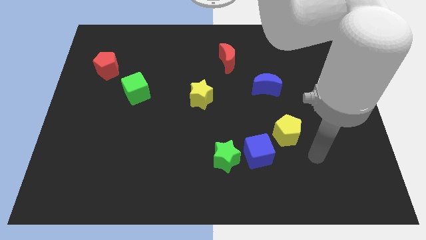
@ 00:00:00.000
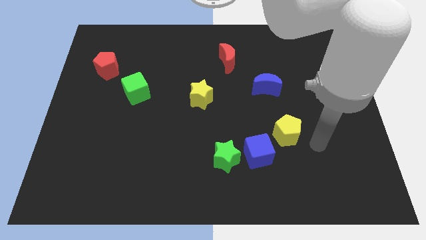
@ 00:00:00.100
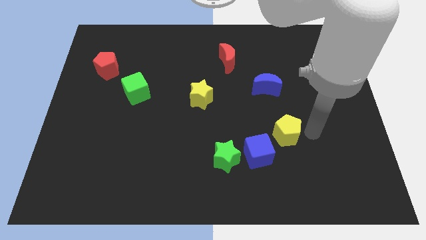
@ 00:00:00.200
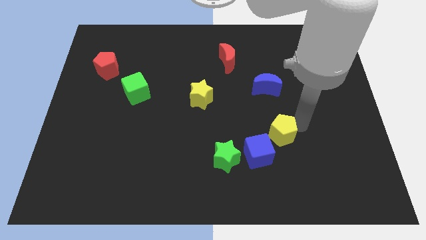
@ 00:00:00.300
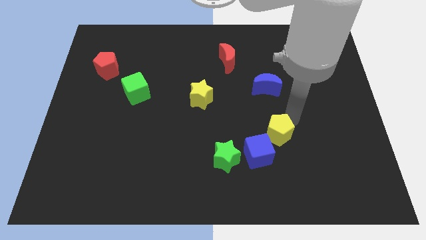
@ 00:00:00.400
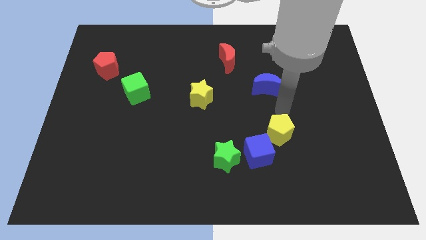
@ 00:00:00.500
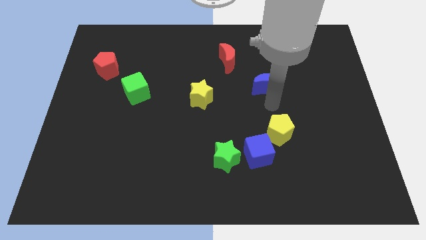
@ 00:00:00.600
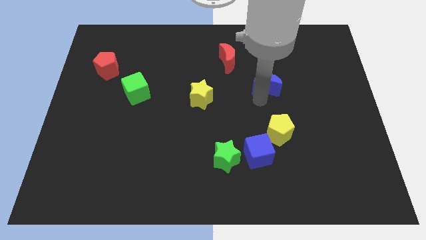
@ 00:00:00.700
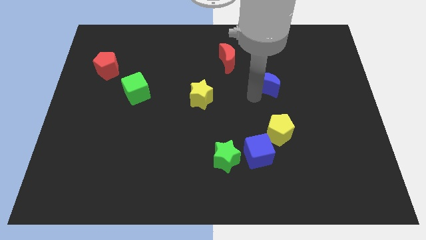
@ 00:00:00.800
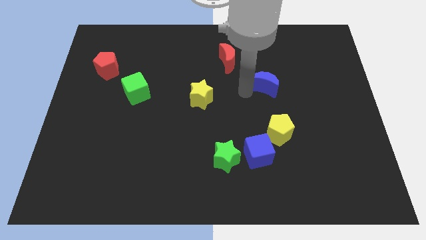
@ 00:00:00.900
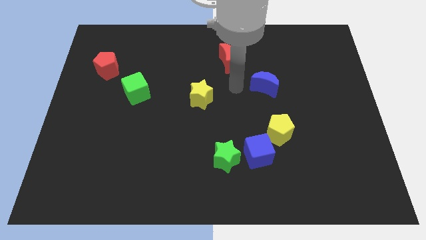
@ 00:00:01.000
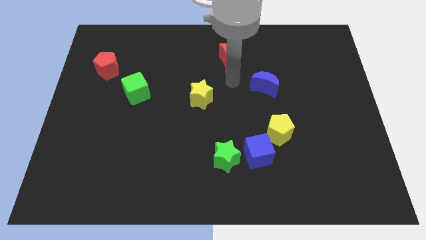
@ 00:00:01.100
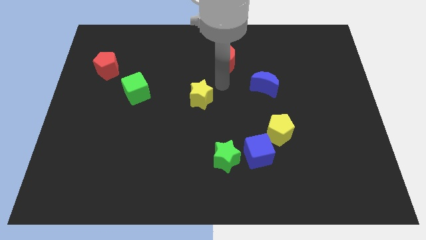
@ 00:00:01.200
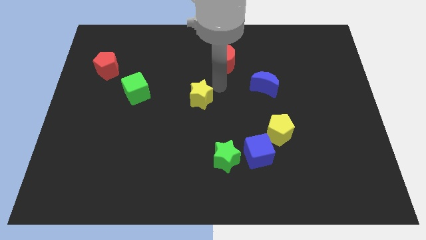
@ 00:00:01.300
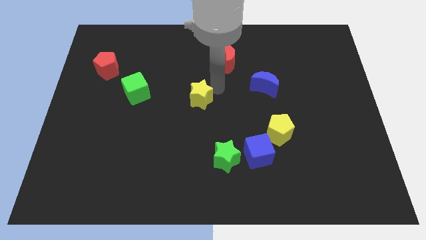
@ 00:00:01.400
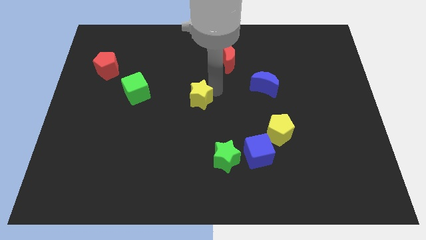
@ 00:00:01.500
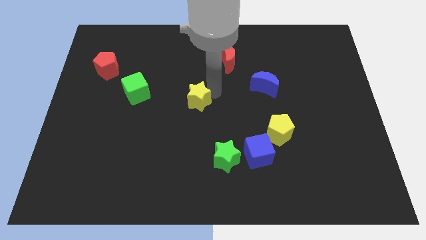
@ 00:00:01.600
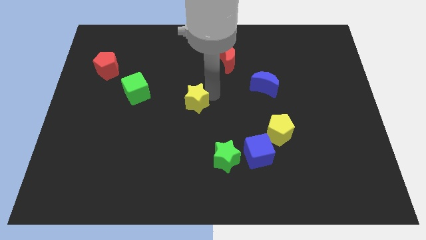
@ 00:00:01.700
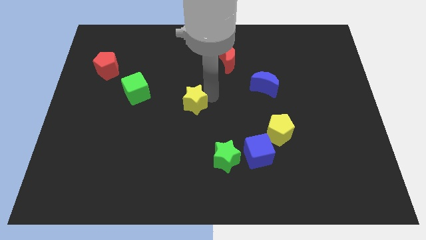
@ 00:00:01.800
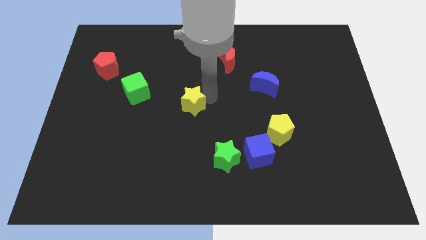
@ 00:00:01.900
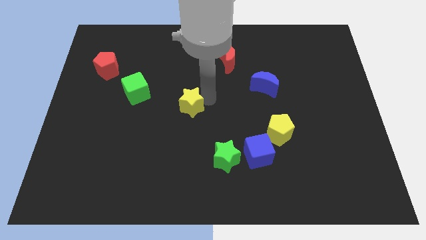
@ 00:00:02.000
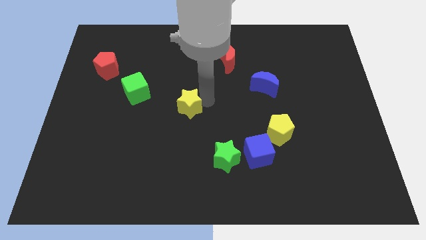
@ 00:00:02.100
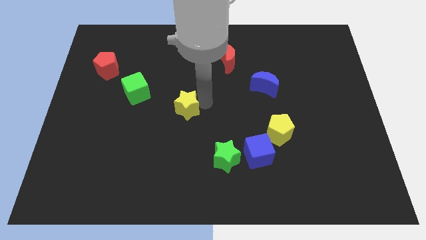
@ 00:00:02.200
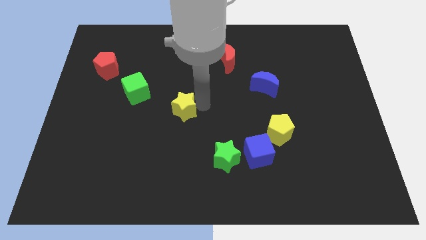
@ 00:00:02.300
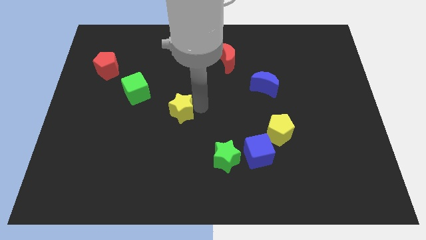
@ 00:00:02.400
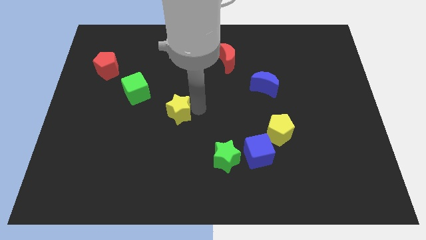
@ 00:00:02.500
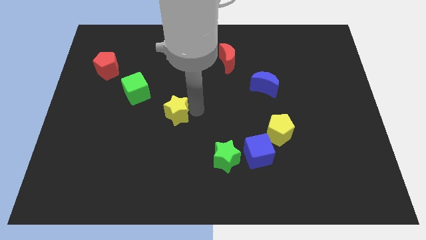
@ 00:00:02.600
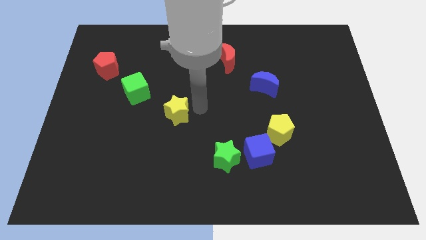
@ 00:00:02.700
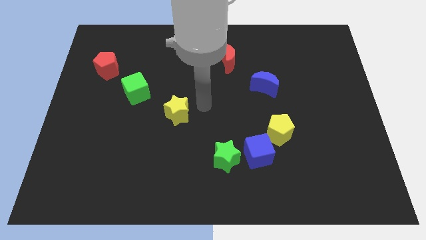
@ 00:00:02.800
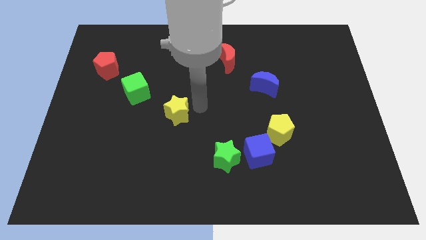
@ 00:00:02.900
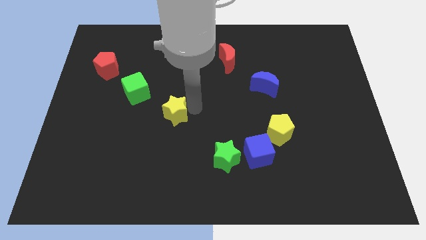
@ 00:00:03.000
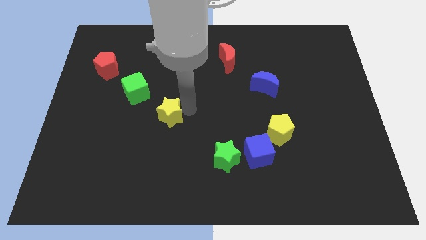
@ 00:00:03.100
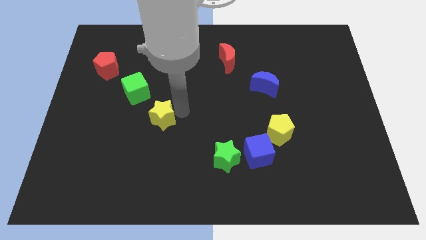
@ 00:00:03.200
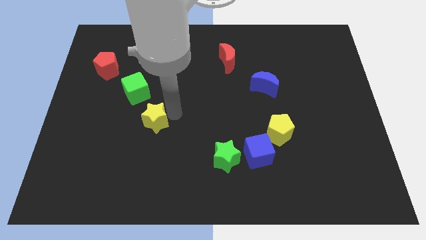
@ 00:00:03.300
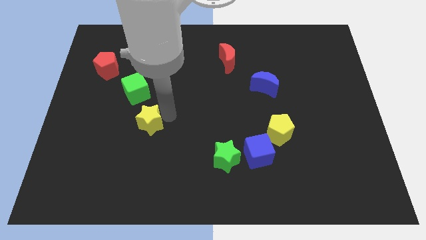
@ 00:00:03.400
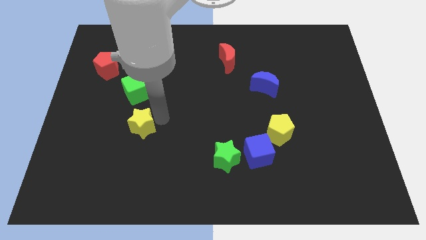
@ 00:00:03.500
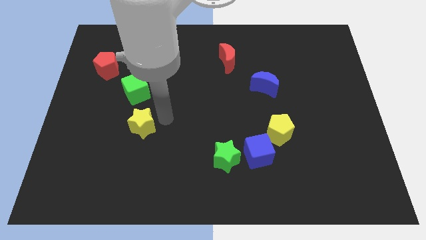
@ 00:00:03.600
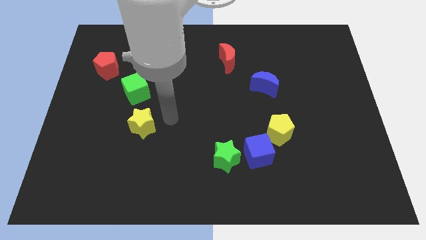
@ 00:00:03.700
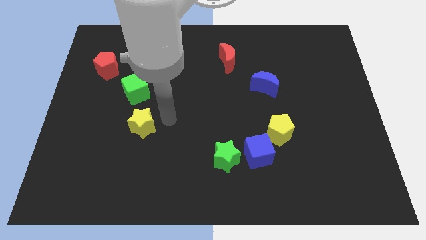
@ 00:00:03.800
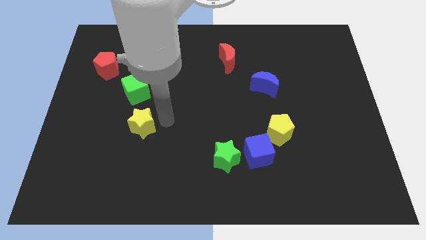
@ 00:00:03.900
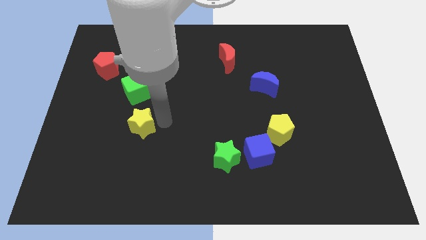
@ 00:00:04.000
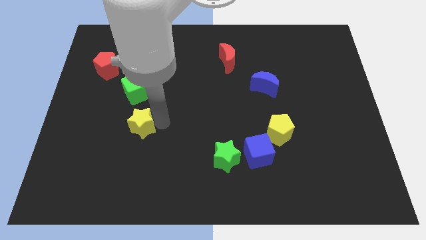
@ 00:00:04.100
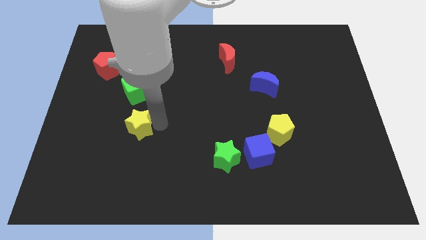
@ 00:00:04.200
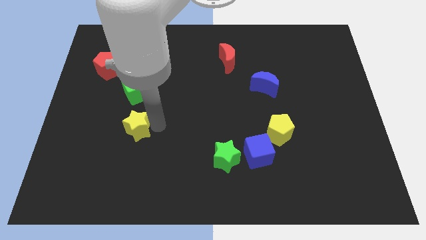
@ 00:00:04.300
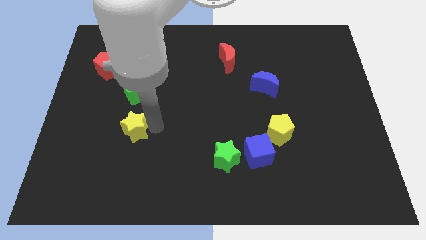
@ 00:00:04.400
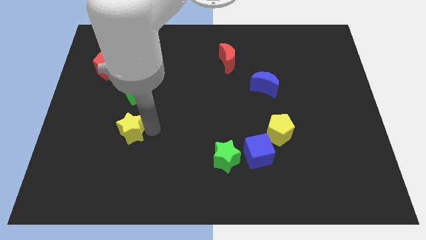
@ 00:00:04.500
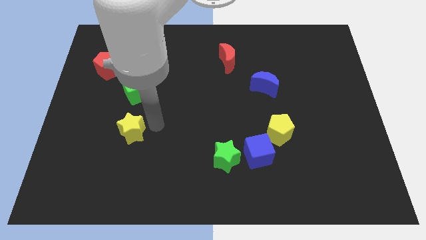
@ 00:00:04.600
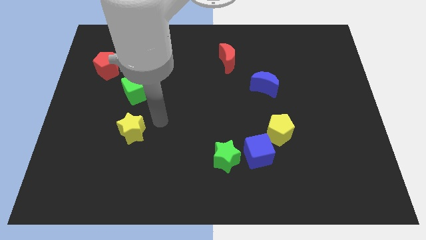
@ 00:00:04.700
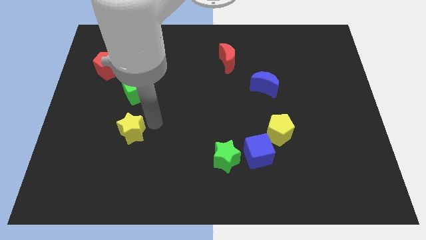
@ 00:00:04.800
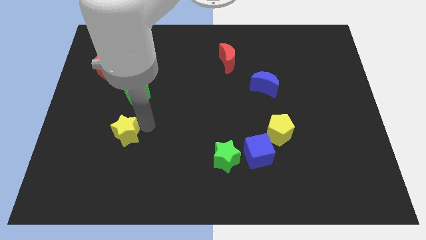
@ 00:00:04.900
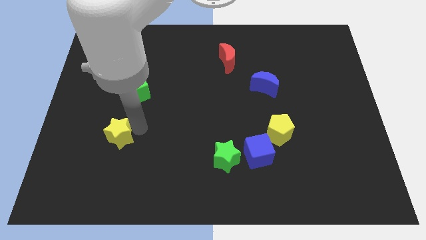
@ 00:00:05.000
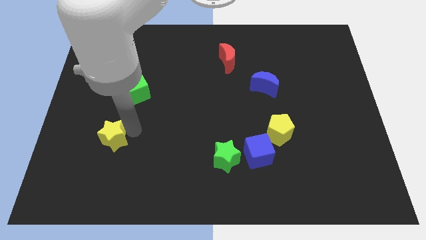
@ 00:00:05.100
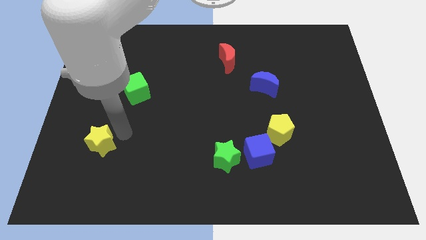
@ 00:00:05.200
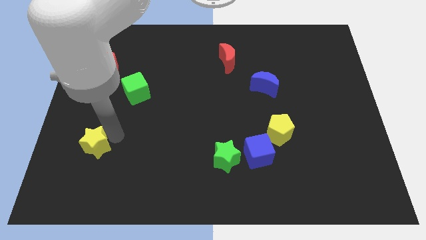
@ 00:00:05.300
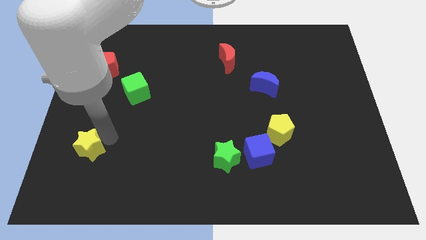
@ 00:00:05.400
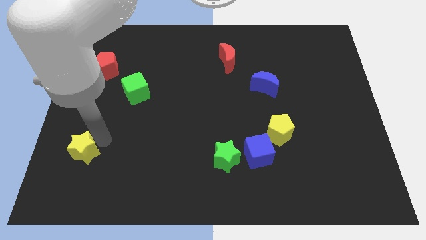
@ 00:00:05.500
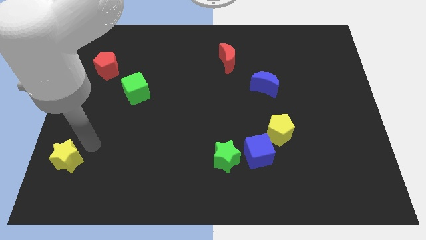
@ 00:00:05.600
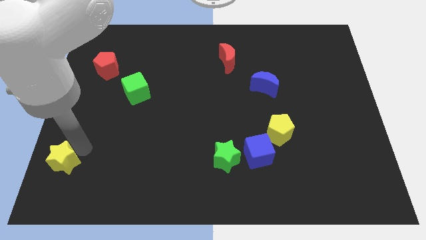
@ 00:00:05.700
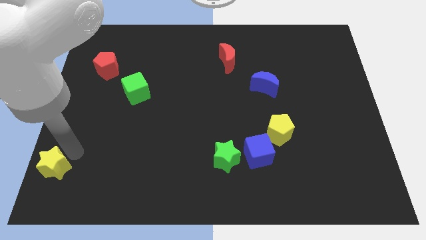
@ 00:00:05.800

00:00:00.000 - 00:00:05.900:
slide the yellow star to the bottom left corner

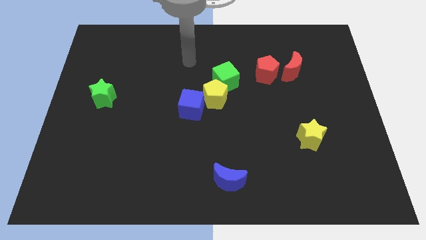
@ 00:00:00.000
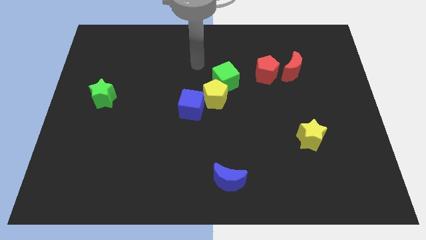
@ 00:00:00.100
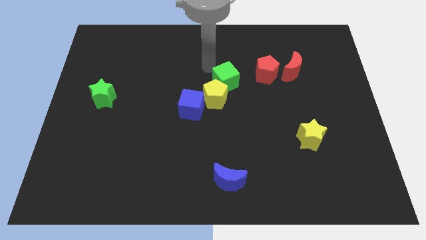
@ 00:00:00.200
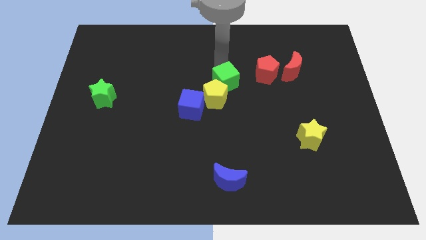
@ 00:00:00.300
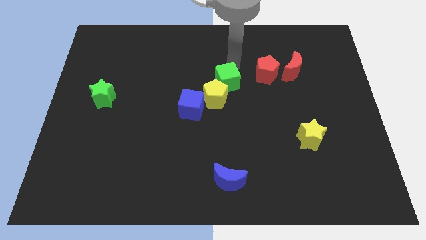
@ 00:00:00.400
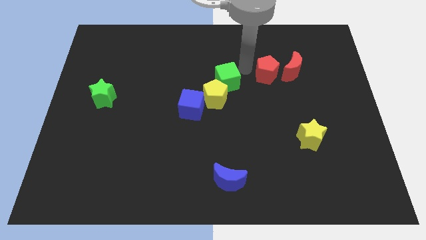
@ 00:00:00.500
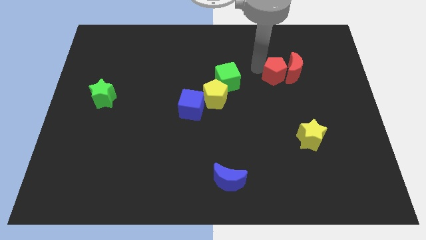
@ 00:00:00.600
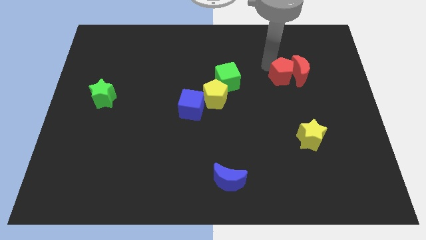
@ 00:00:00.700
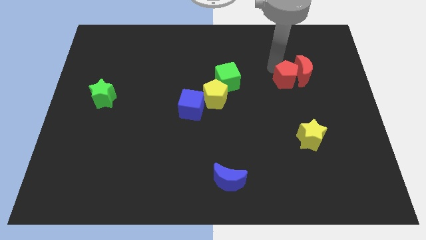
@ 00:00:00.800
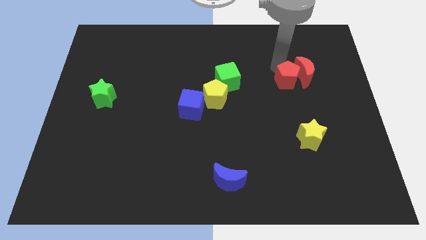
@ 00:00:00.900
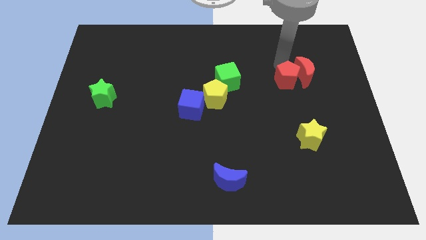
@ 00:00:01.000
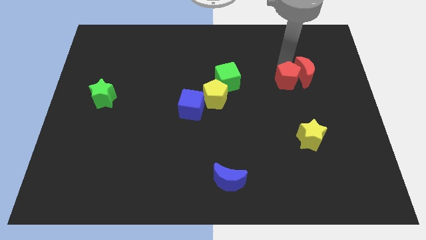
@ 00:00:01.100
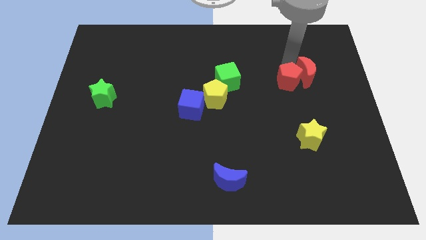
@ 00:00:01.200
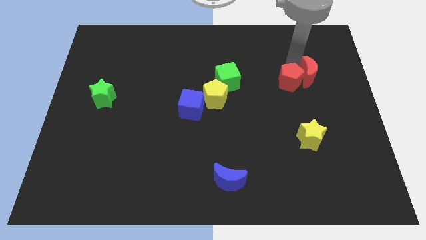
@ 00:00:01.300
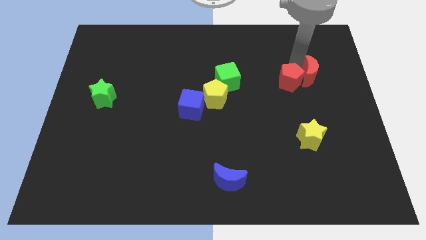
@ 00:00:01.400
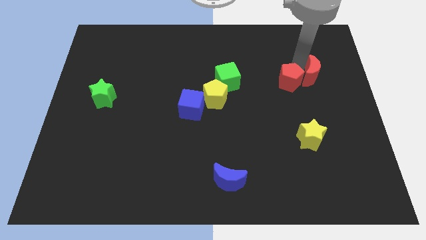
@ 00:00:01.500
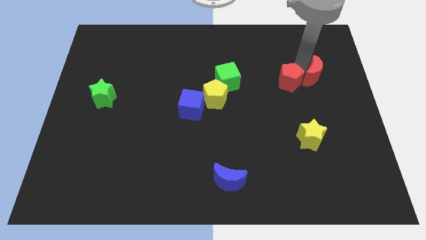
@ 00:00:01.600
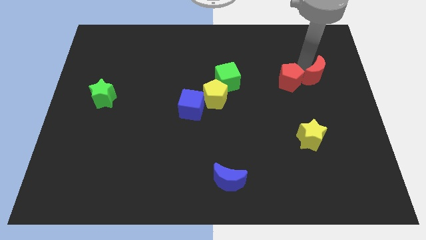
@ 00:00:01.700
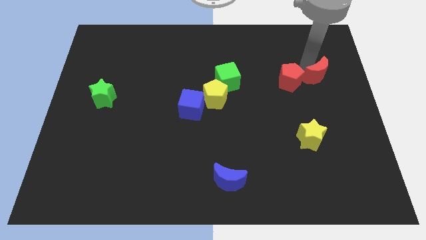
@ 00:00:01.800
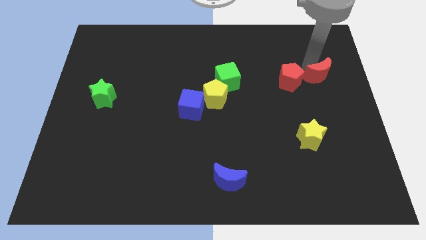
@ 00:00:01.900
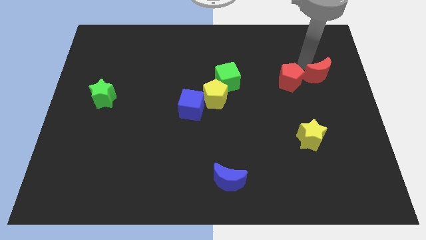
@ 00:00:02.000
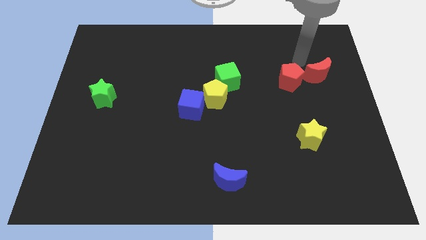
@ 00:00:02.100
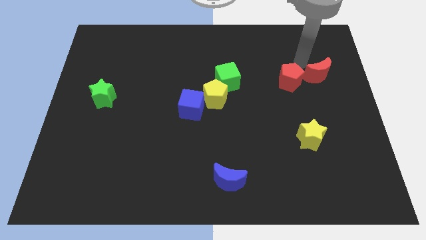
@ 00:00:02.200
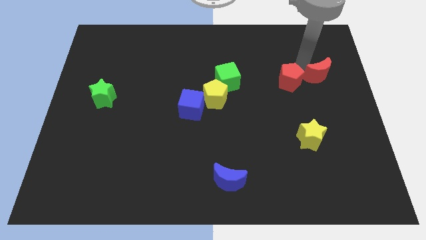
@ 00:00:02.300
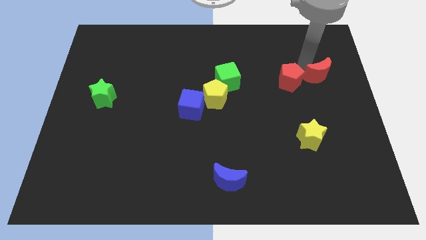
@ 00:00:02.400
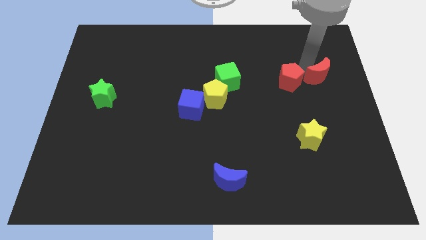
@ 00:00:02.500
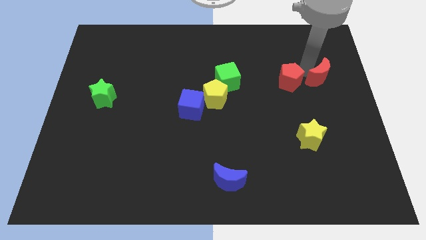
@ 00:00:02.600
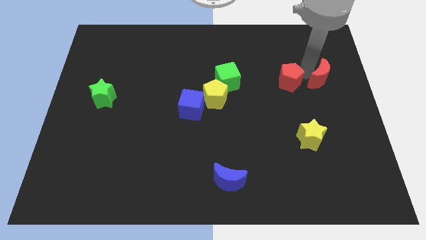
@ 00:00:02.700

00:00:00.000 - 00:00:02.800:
put the red moon to the center right
